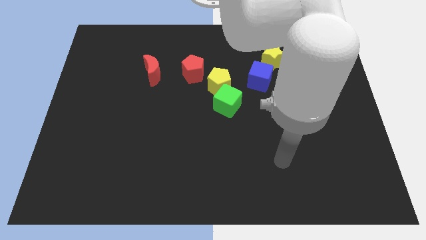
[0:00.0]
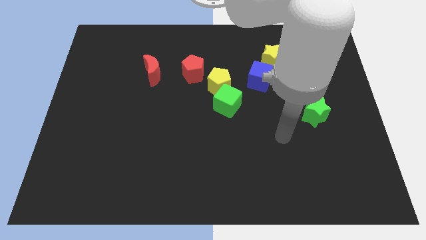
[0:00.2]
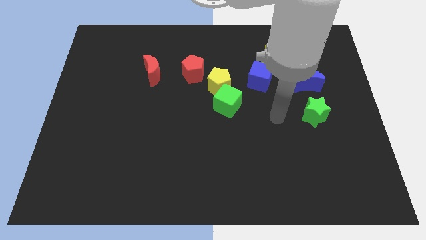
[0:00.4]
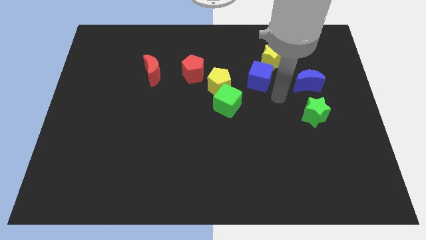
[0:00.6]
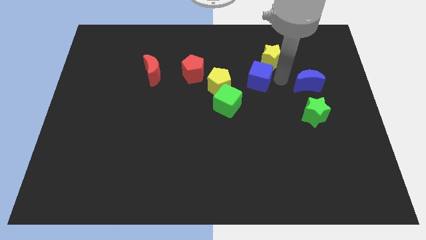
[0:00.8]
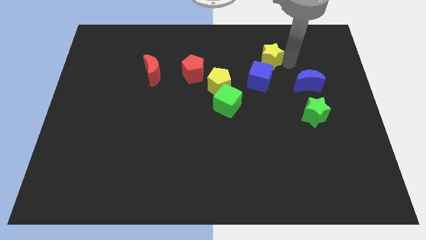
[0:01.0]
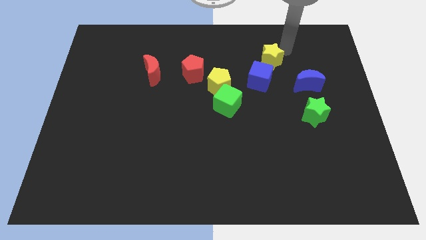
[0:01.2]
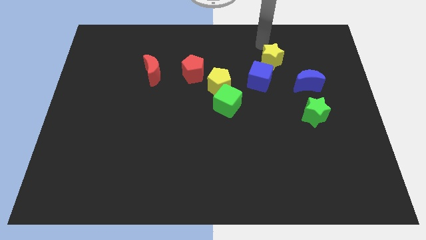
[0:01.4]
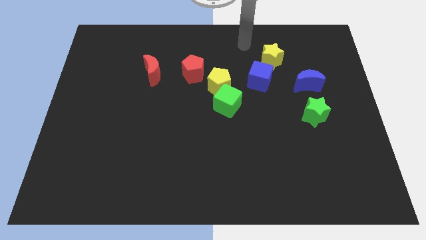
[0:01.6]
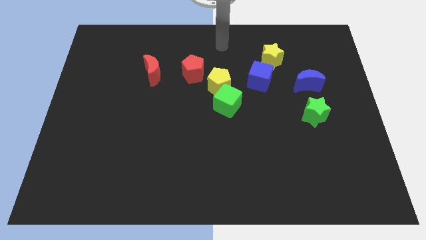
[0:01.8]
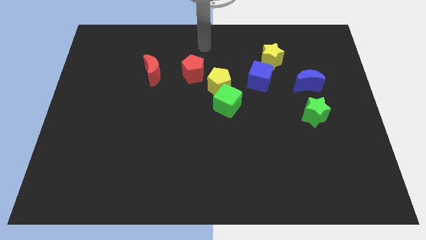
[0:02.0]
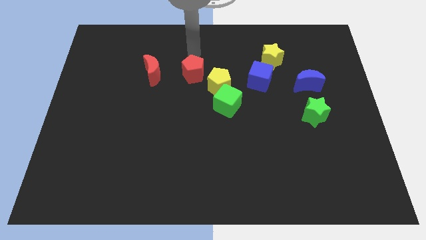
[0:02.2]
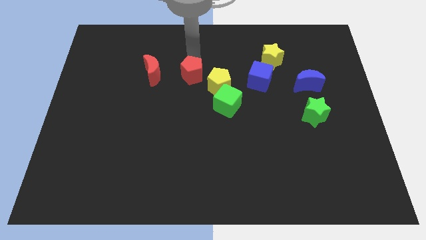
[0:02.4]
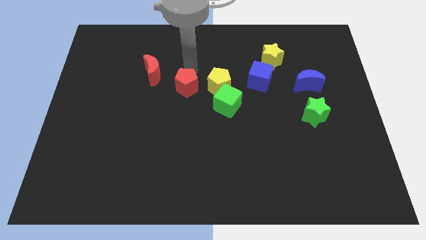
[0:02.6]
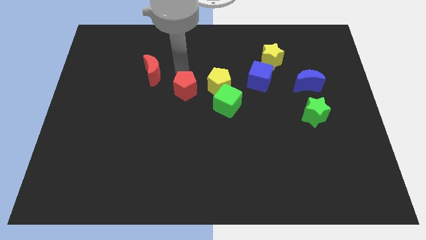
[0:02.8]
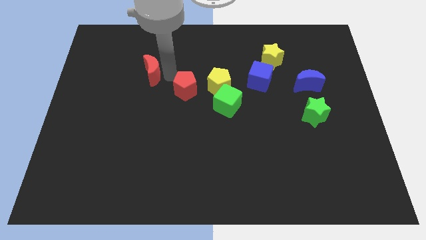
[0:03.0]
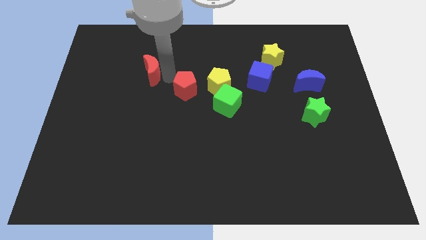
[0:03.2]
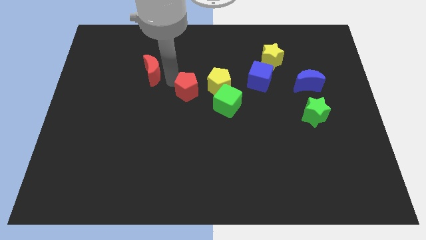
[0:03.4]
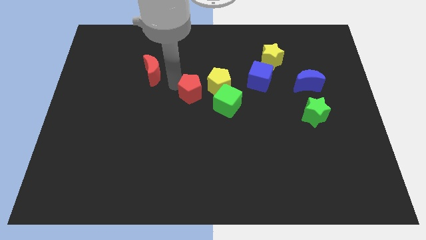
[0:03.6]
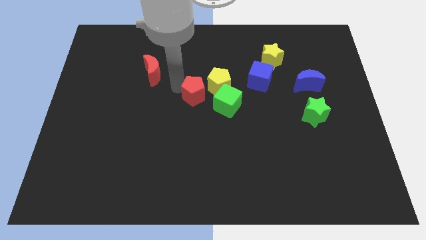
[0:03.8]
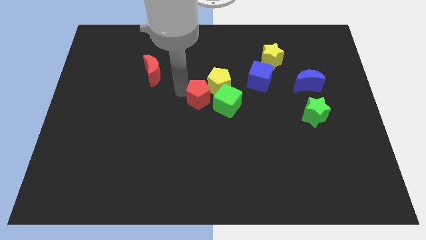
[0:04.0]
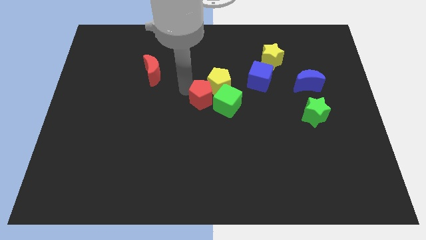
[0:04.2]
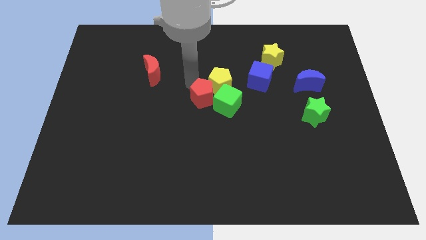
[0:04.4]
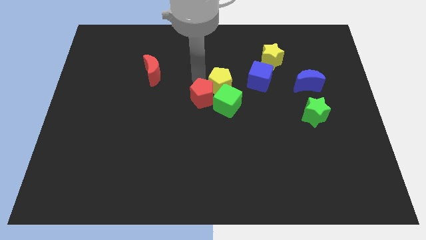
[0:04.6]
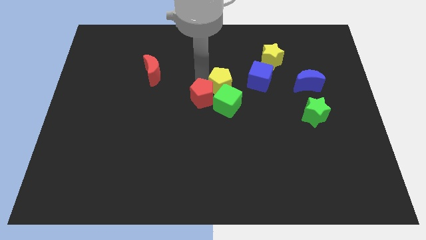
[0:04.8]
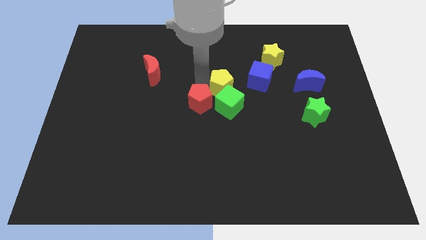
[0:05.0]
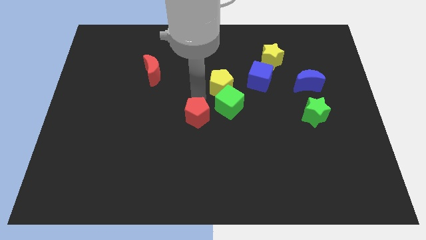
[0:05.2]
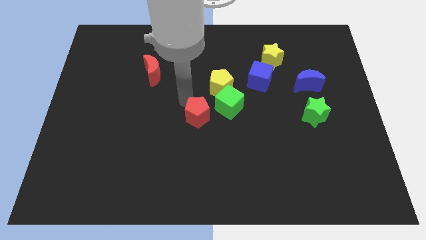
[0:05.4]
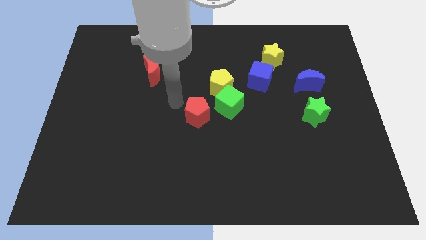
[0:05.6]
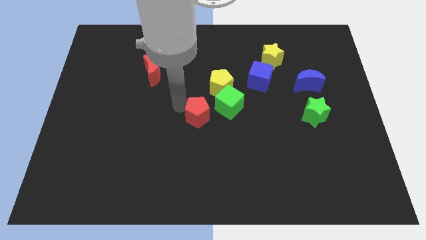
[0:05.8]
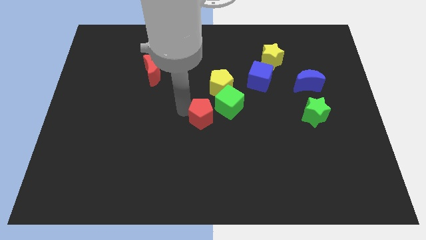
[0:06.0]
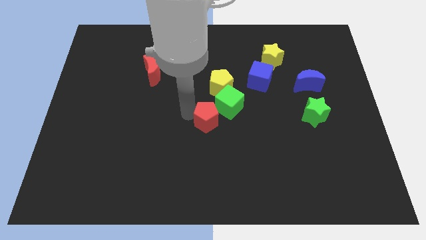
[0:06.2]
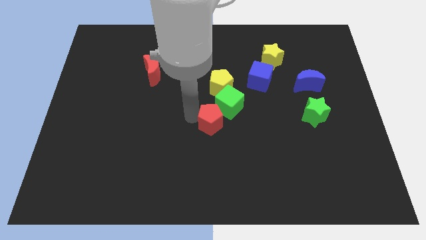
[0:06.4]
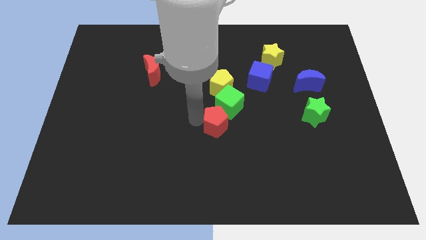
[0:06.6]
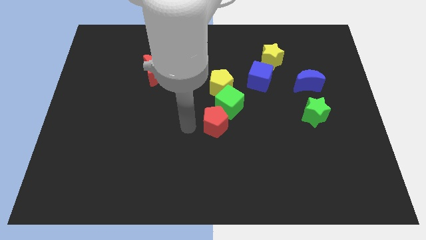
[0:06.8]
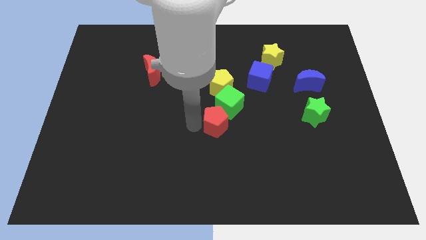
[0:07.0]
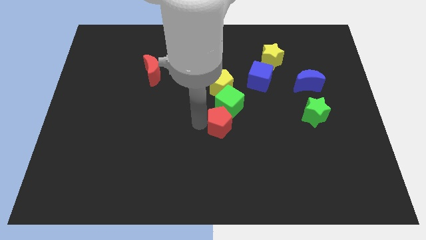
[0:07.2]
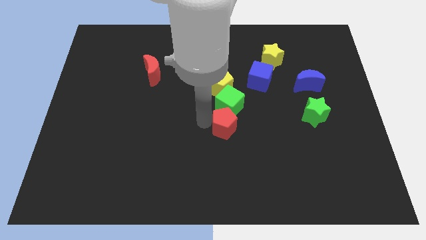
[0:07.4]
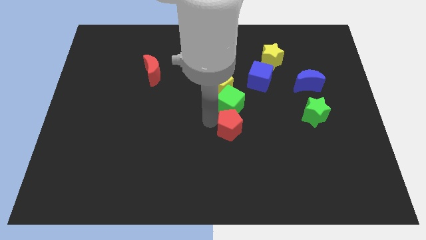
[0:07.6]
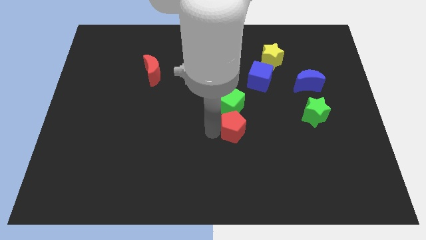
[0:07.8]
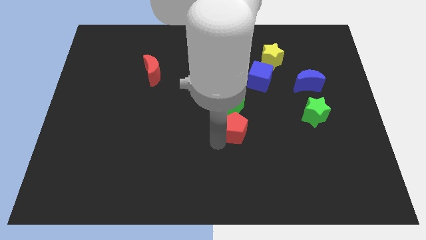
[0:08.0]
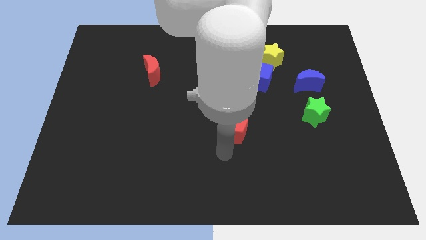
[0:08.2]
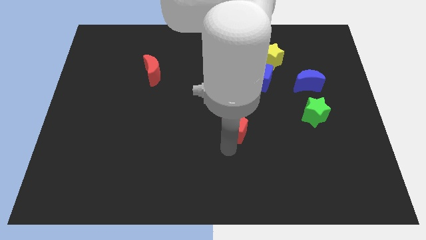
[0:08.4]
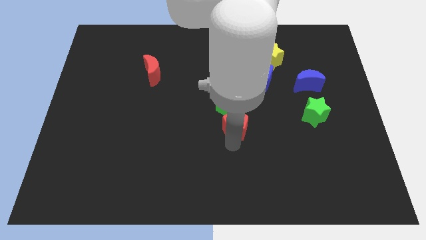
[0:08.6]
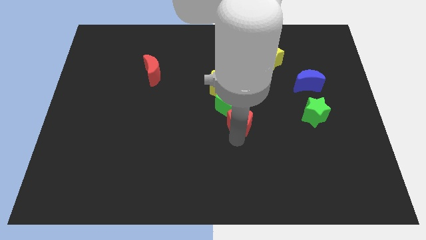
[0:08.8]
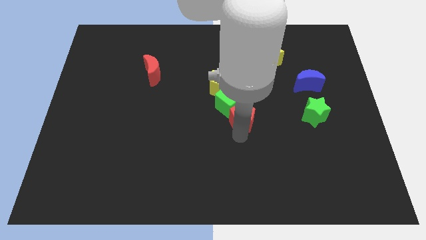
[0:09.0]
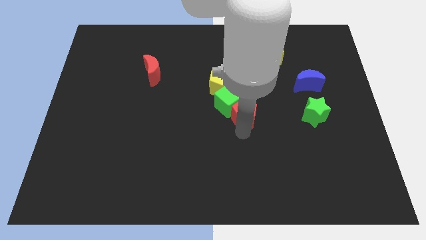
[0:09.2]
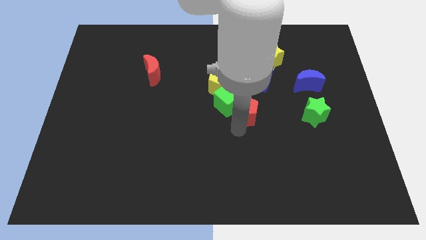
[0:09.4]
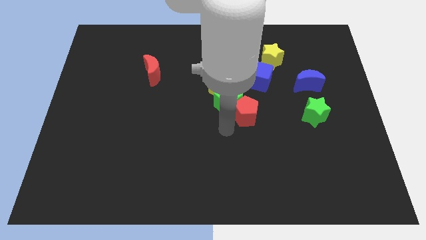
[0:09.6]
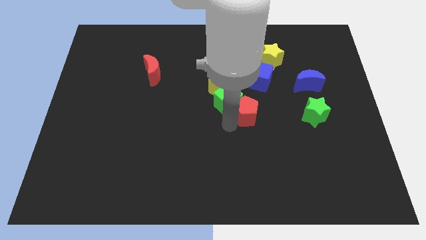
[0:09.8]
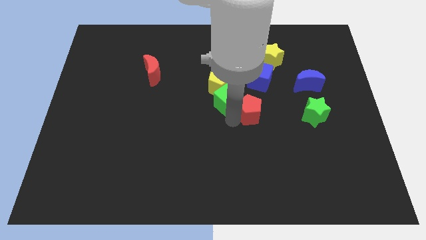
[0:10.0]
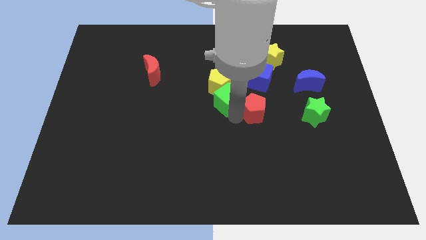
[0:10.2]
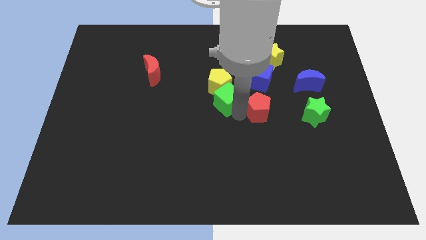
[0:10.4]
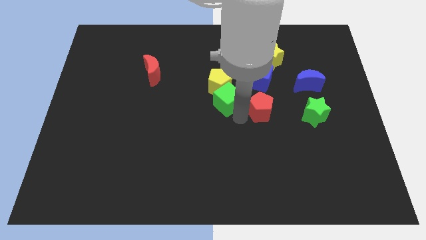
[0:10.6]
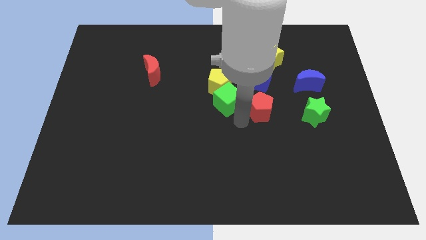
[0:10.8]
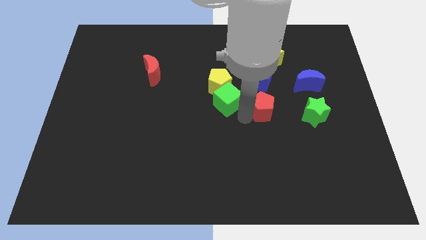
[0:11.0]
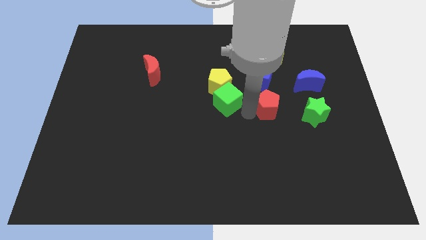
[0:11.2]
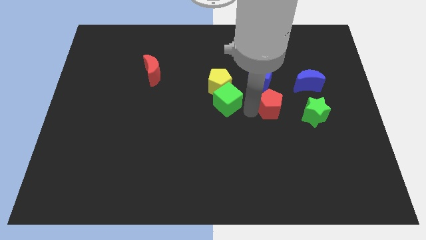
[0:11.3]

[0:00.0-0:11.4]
put the red pentagon diagonally down and to the right of the blue cube

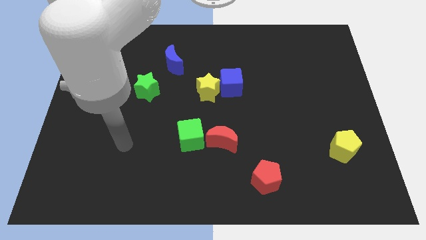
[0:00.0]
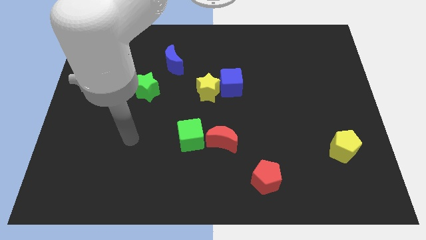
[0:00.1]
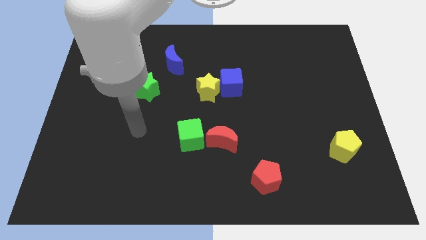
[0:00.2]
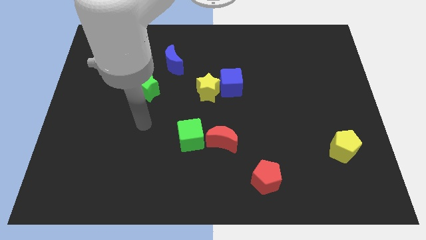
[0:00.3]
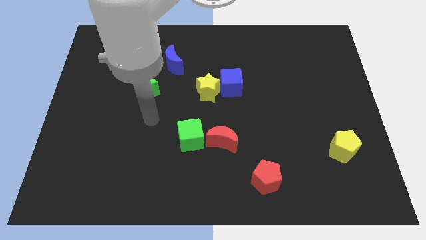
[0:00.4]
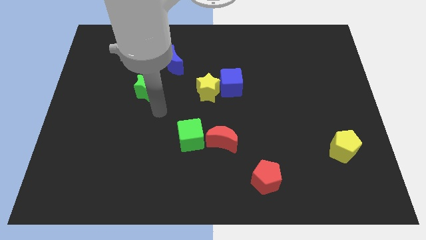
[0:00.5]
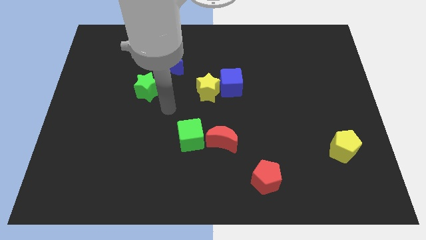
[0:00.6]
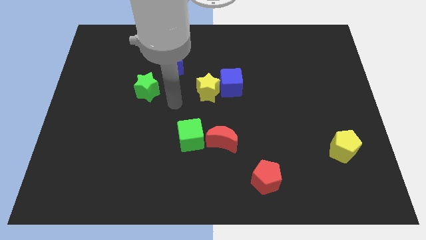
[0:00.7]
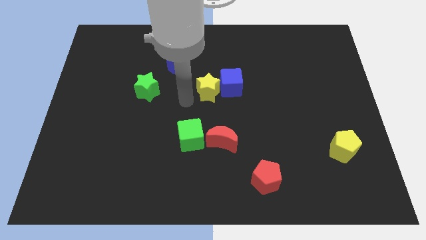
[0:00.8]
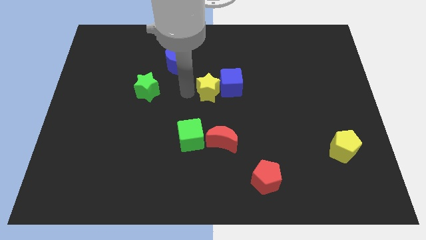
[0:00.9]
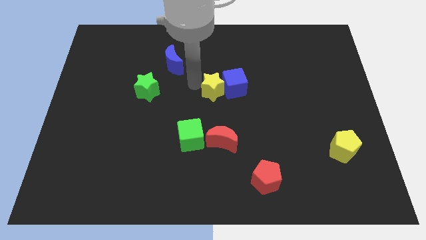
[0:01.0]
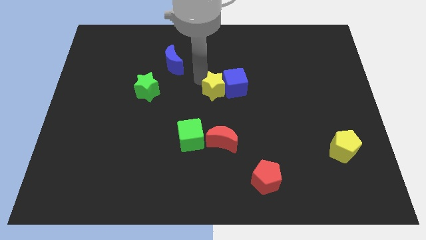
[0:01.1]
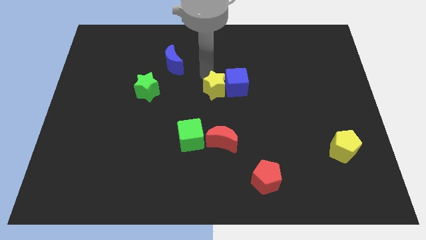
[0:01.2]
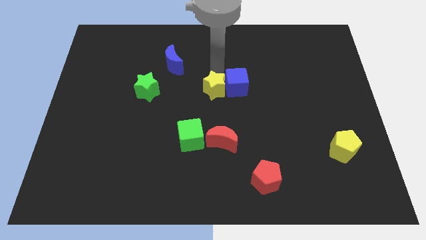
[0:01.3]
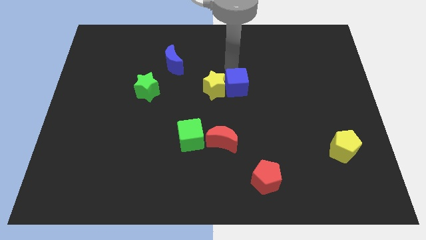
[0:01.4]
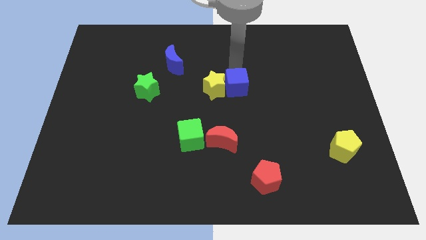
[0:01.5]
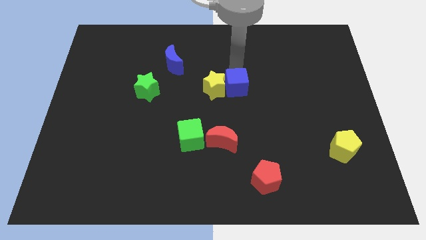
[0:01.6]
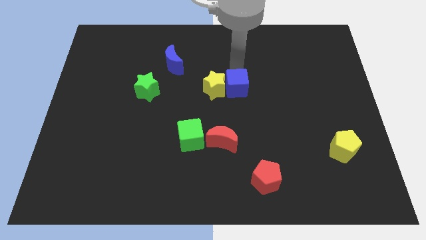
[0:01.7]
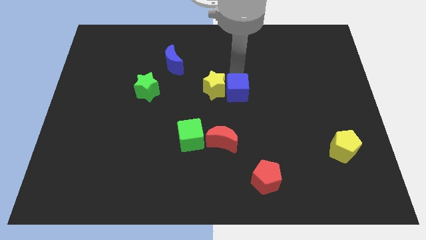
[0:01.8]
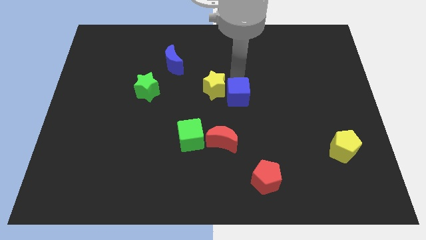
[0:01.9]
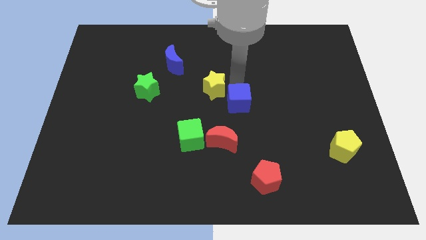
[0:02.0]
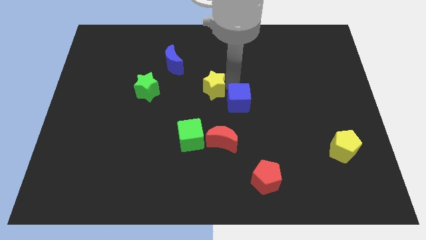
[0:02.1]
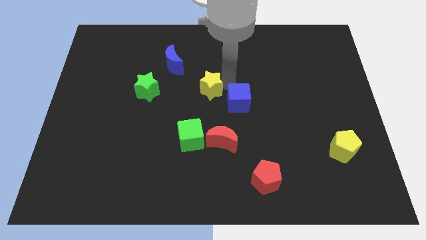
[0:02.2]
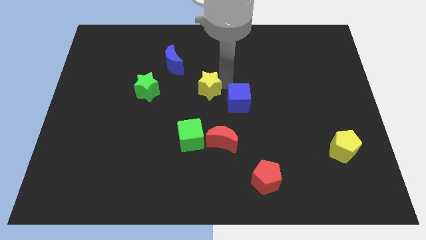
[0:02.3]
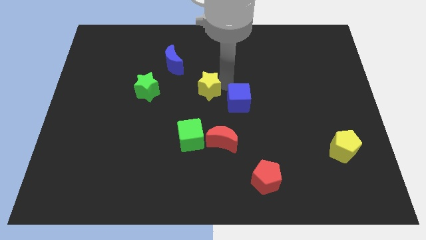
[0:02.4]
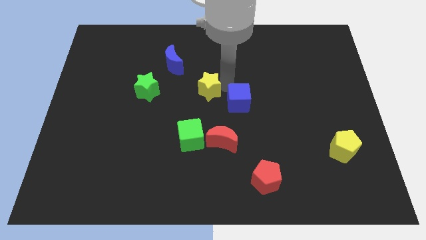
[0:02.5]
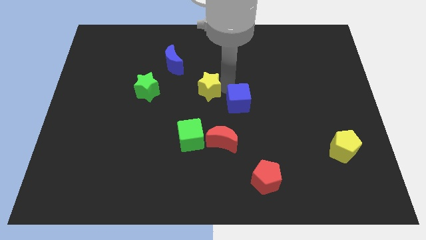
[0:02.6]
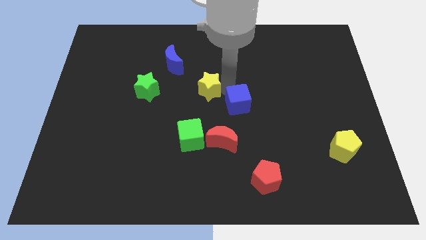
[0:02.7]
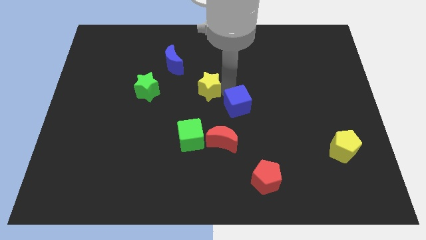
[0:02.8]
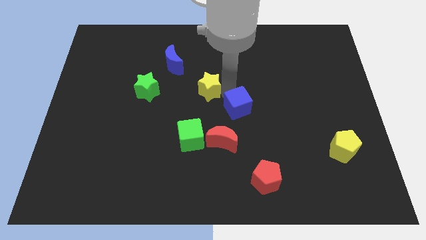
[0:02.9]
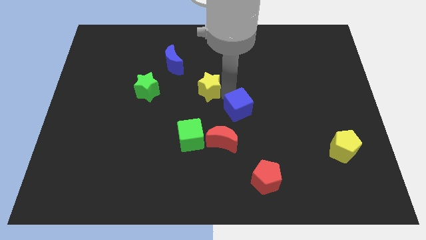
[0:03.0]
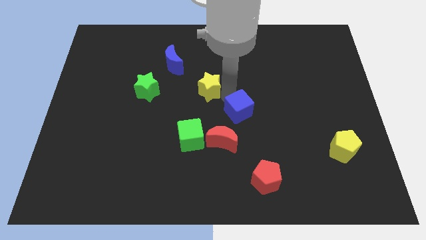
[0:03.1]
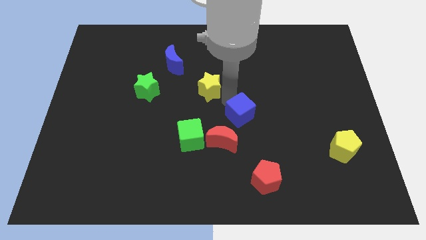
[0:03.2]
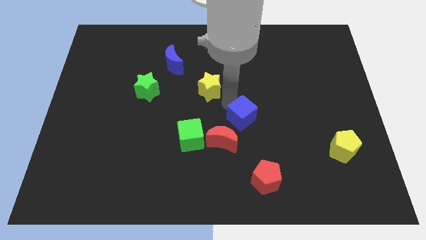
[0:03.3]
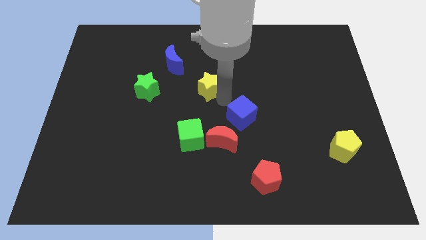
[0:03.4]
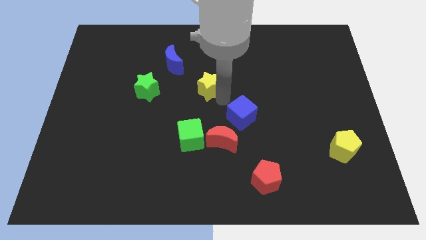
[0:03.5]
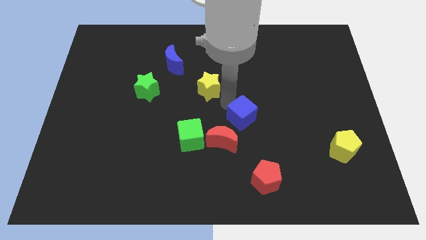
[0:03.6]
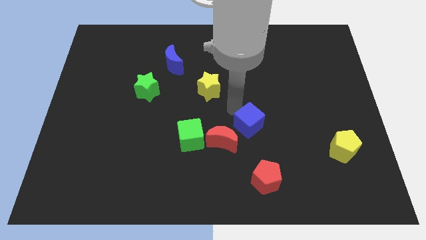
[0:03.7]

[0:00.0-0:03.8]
move the blue cube to the right of the red moon
